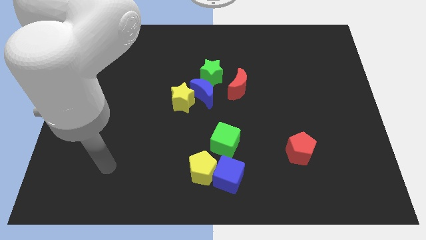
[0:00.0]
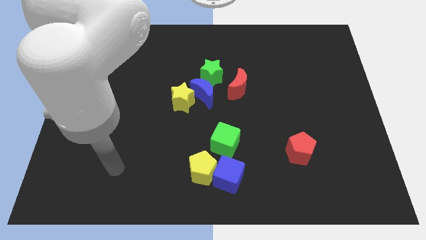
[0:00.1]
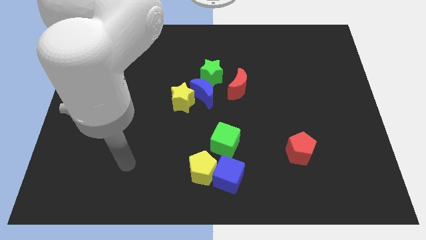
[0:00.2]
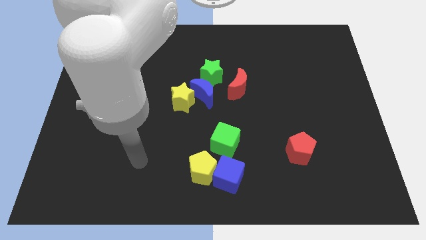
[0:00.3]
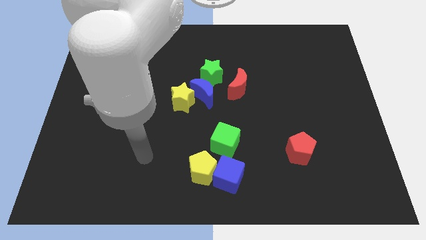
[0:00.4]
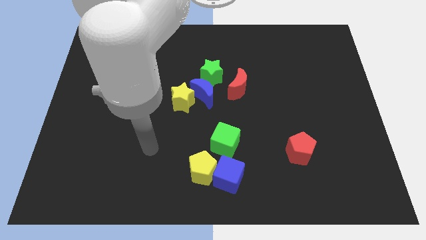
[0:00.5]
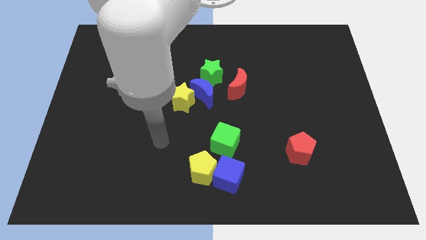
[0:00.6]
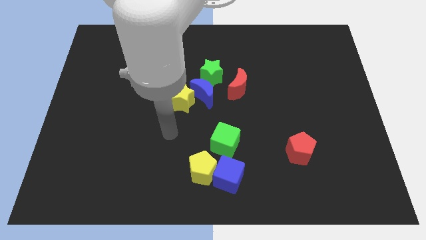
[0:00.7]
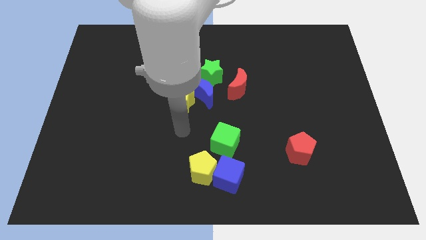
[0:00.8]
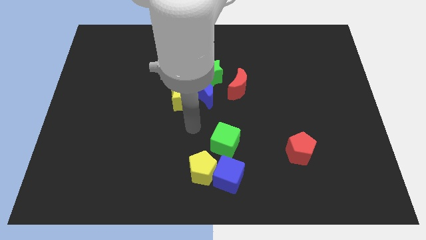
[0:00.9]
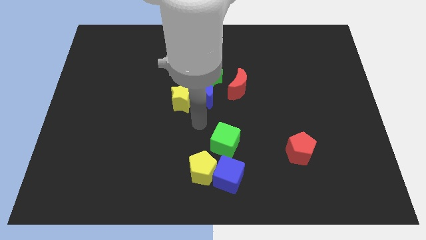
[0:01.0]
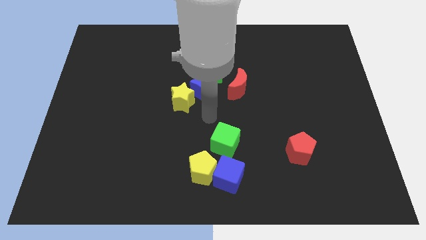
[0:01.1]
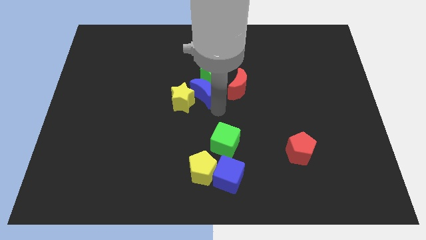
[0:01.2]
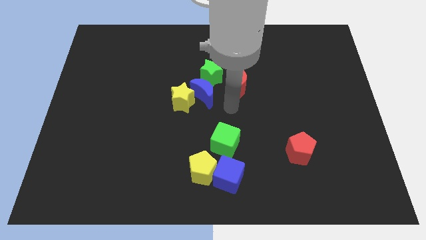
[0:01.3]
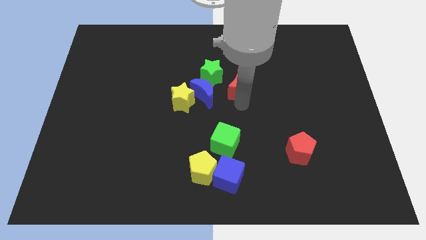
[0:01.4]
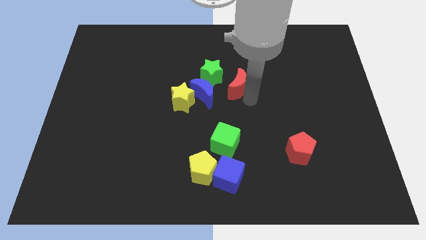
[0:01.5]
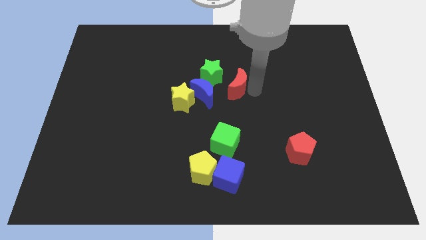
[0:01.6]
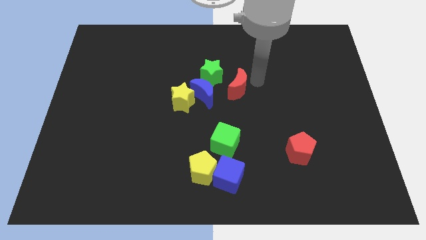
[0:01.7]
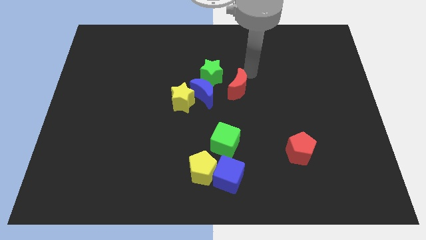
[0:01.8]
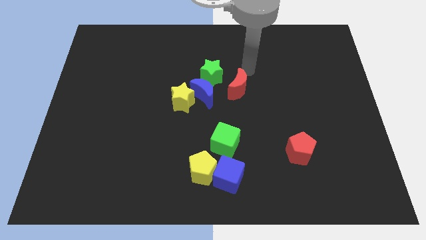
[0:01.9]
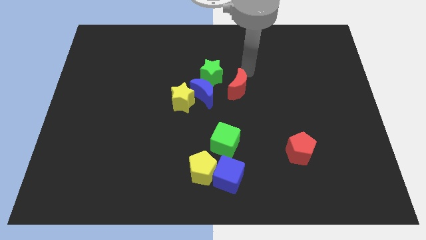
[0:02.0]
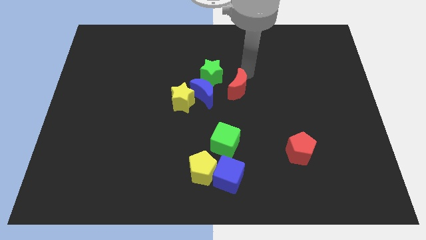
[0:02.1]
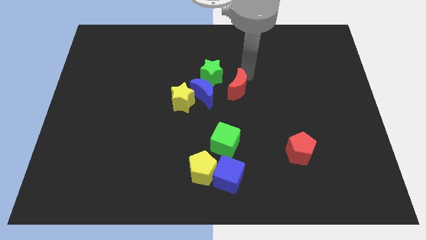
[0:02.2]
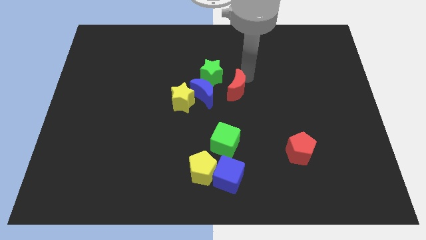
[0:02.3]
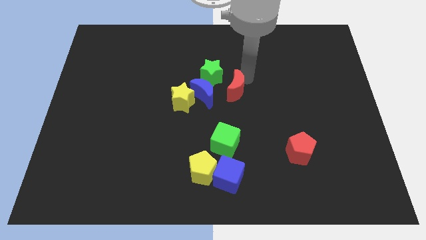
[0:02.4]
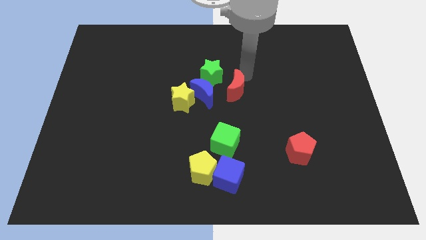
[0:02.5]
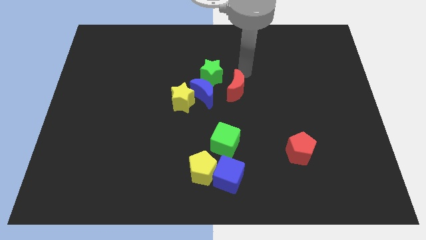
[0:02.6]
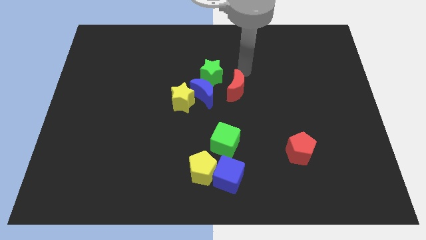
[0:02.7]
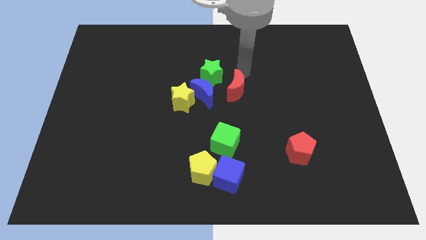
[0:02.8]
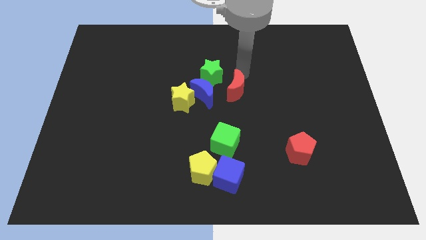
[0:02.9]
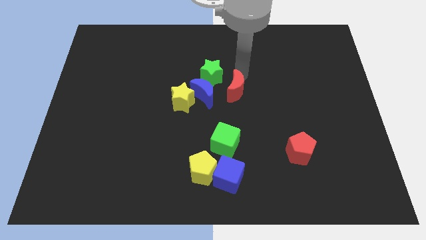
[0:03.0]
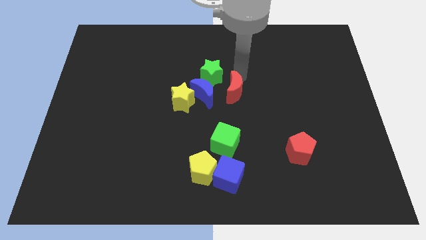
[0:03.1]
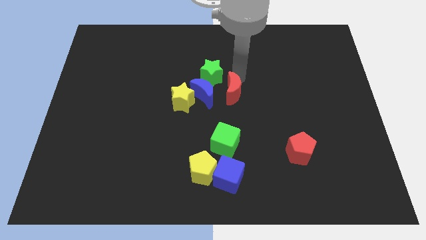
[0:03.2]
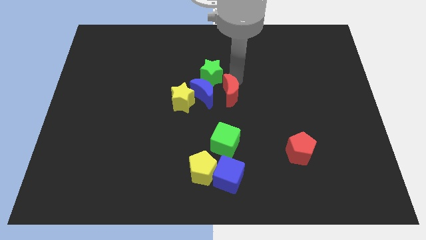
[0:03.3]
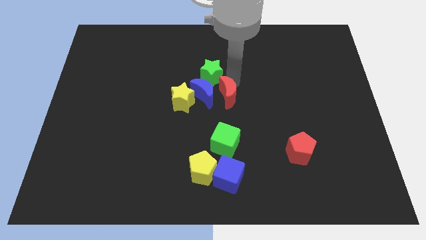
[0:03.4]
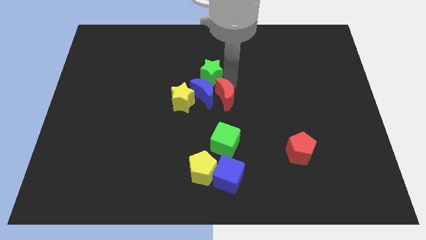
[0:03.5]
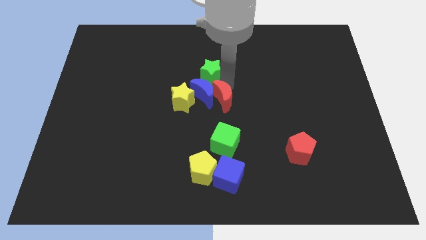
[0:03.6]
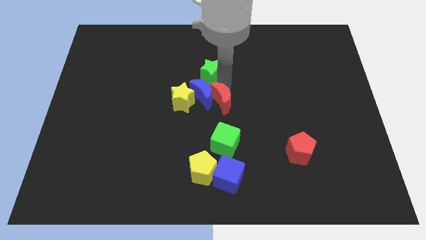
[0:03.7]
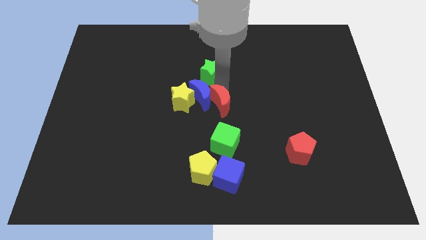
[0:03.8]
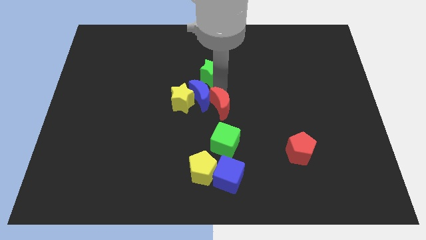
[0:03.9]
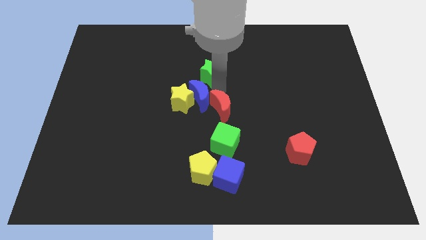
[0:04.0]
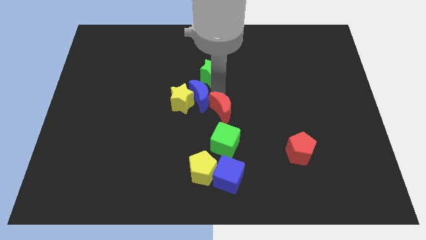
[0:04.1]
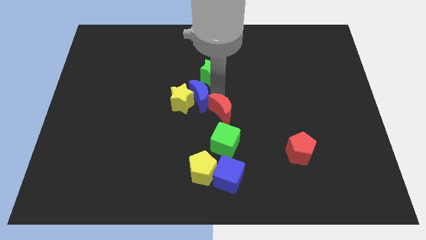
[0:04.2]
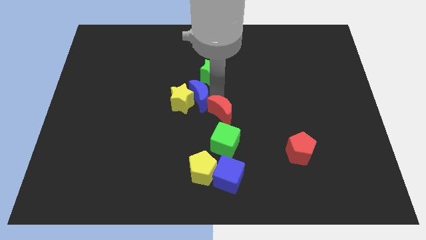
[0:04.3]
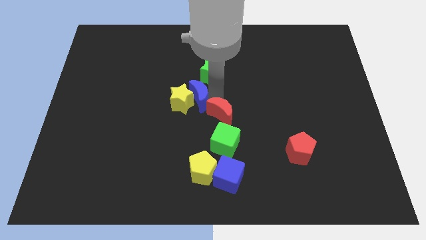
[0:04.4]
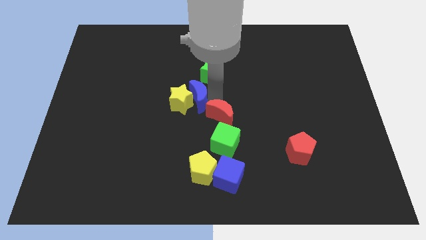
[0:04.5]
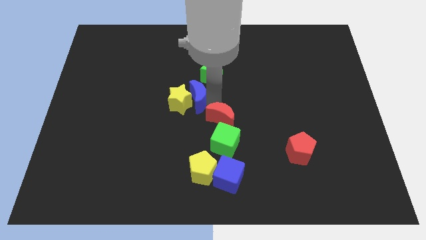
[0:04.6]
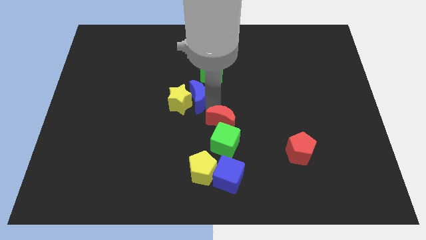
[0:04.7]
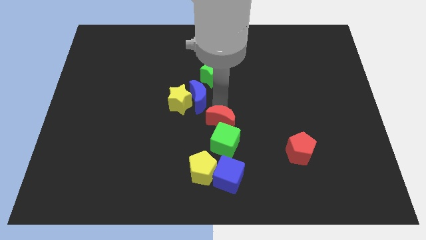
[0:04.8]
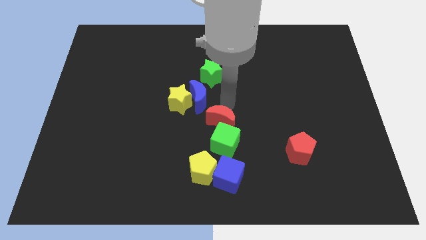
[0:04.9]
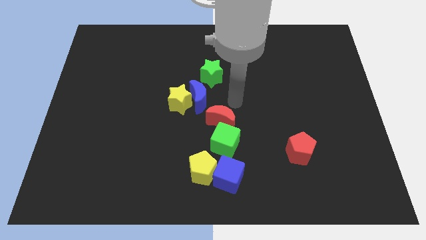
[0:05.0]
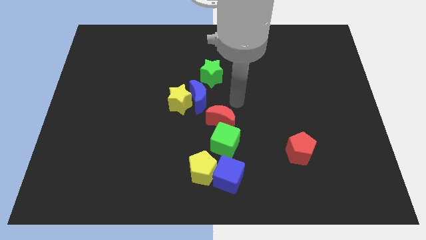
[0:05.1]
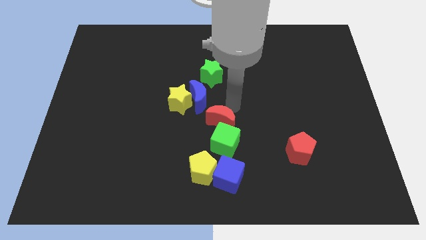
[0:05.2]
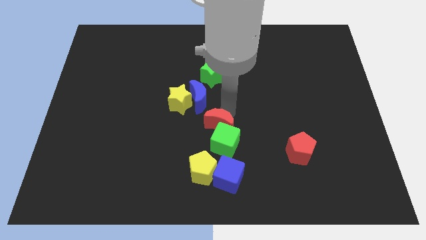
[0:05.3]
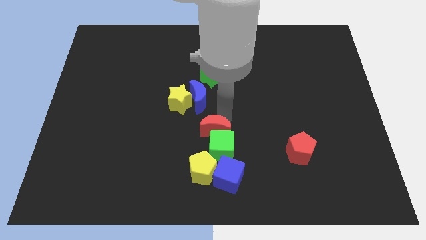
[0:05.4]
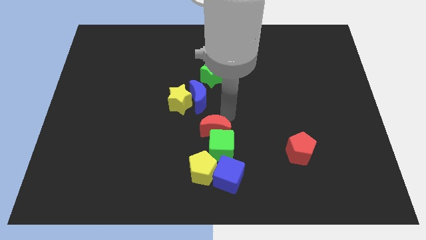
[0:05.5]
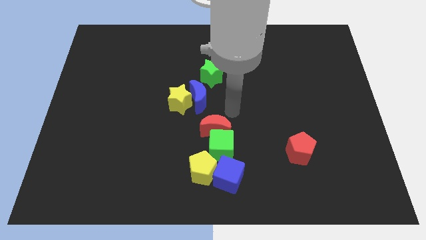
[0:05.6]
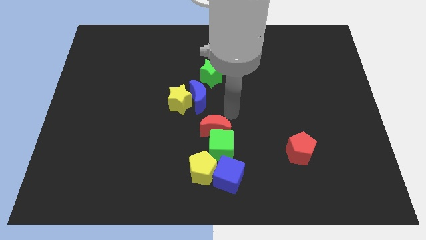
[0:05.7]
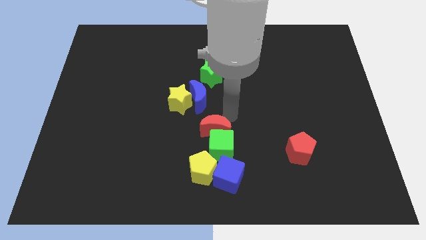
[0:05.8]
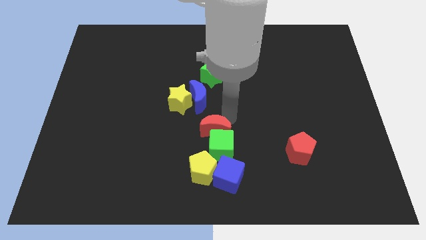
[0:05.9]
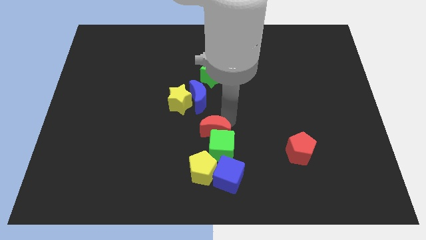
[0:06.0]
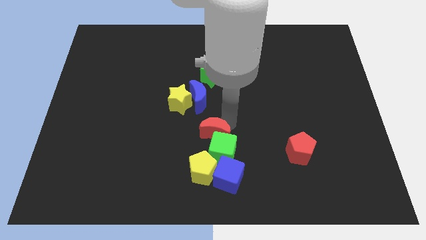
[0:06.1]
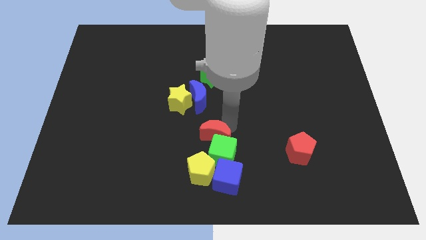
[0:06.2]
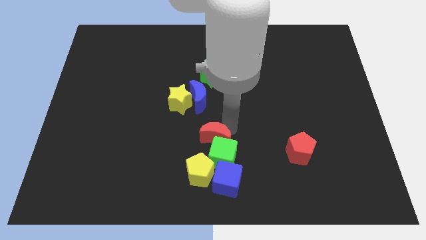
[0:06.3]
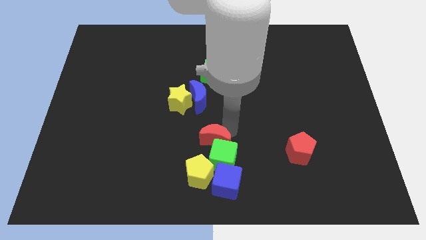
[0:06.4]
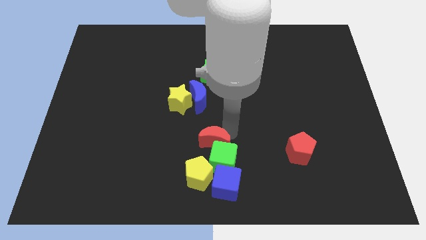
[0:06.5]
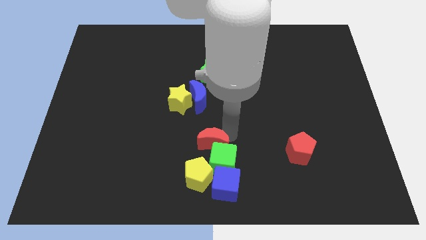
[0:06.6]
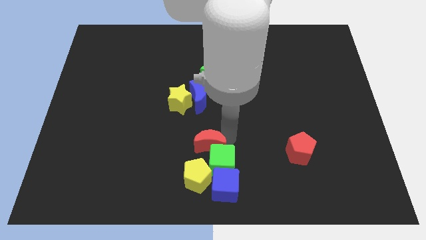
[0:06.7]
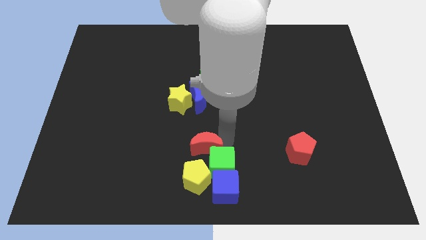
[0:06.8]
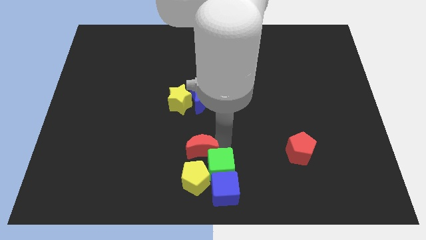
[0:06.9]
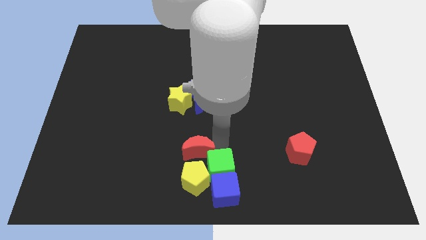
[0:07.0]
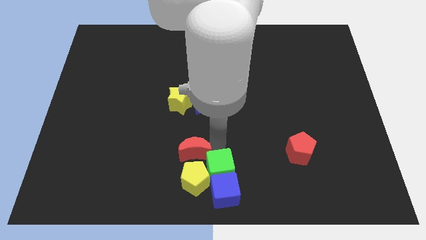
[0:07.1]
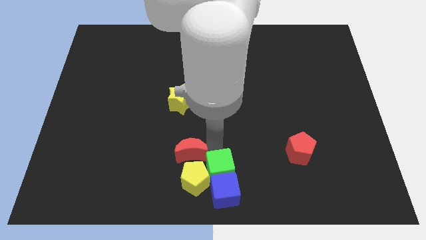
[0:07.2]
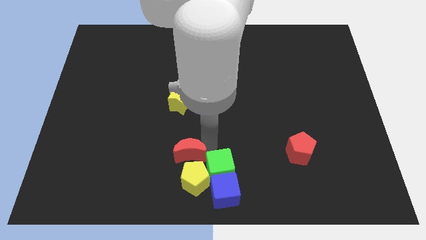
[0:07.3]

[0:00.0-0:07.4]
put the red moon close to the yellow pentagon
